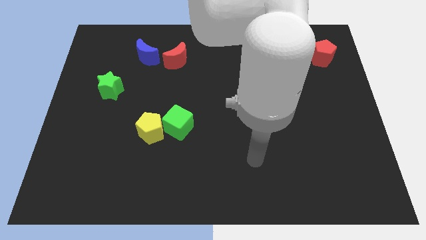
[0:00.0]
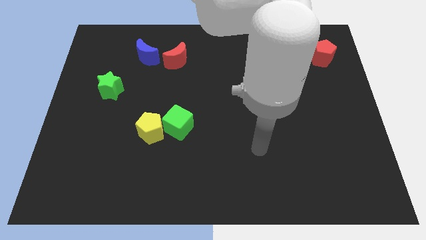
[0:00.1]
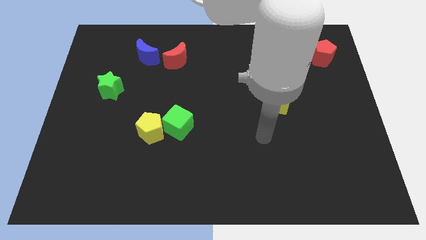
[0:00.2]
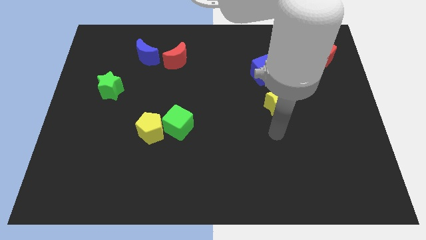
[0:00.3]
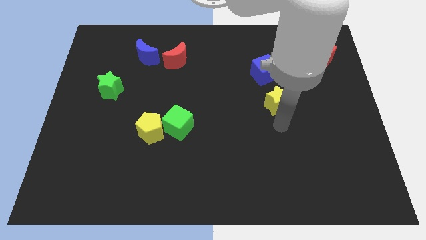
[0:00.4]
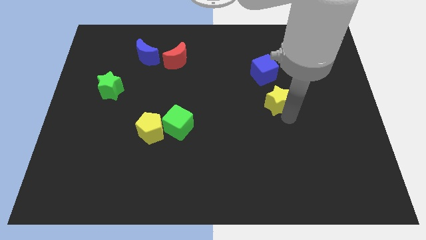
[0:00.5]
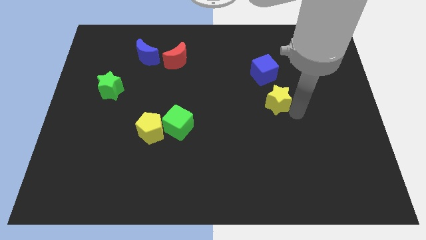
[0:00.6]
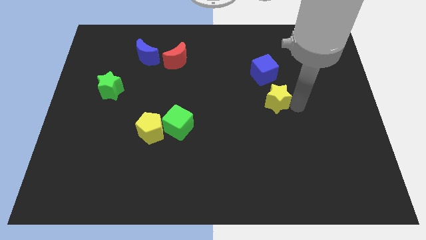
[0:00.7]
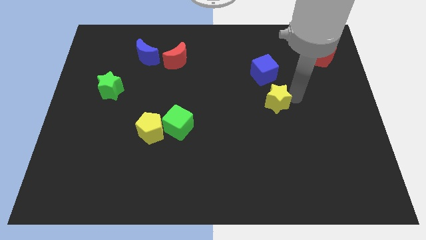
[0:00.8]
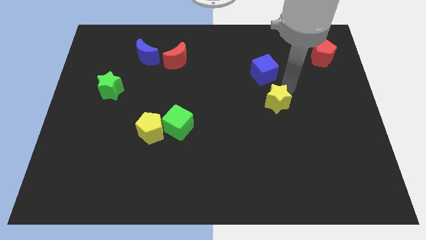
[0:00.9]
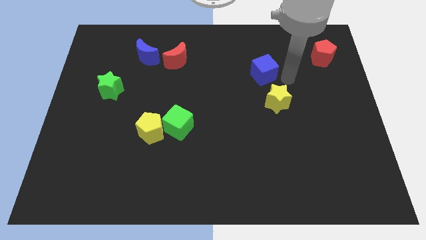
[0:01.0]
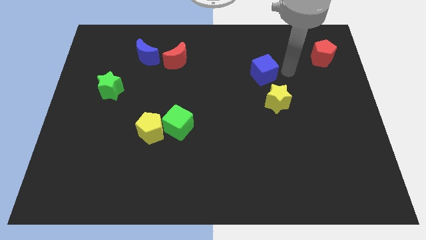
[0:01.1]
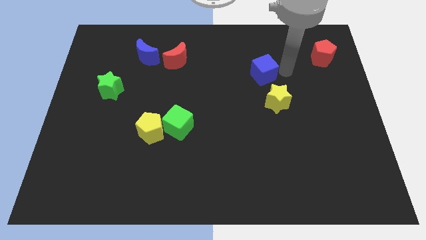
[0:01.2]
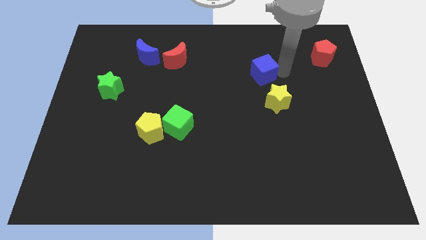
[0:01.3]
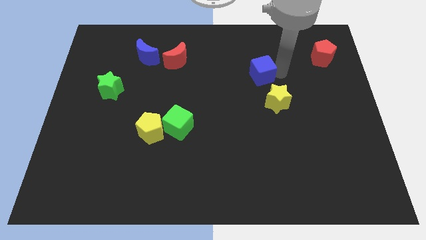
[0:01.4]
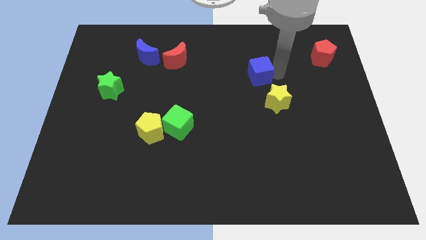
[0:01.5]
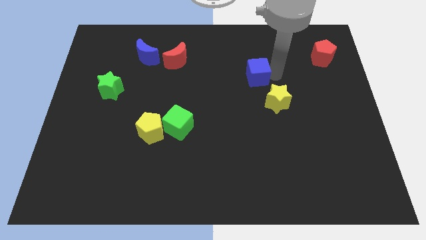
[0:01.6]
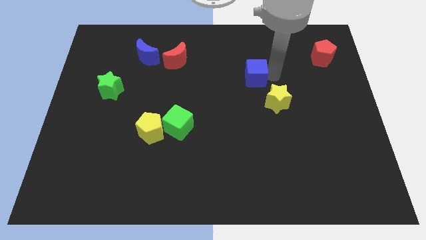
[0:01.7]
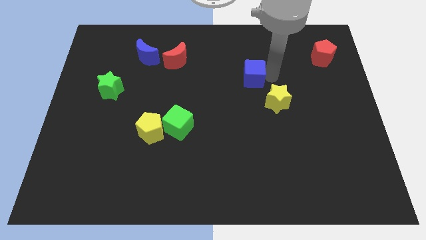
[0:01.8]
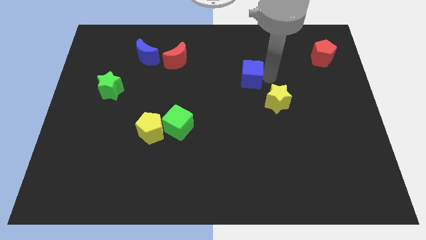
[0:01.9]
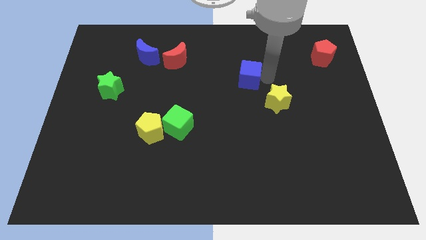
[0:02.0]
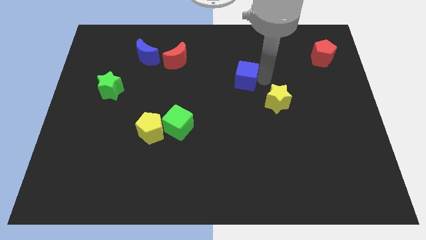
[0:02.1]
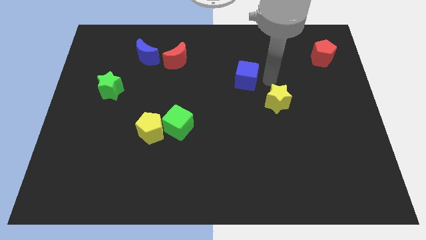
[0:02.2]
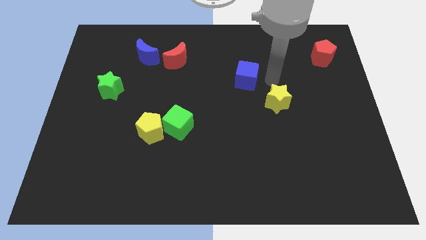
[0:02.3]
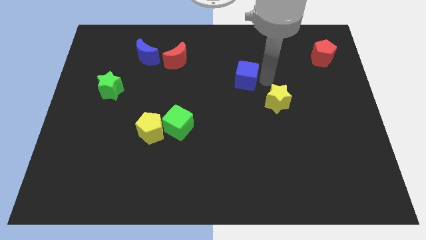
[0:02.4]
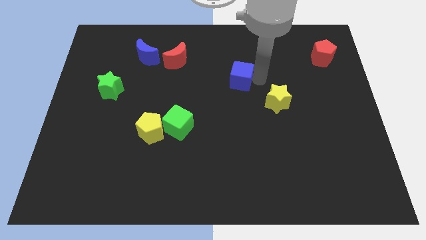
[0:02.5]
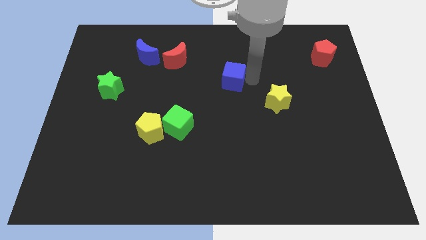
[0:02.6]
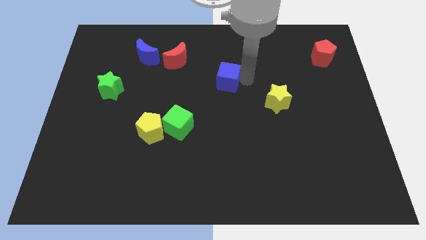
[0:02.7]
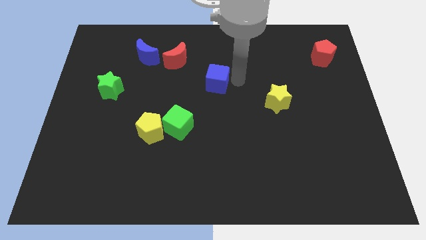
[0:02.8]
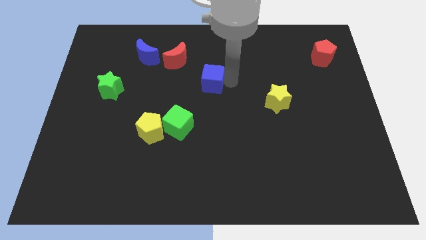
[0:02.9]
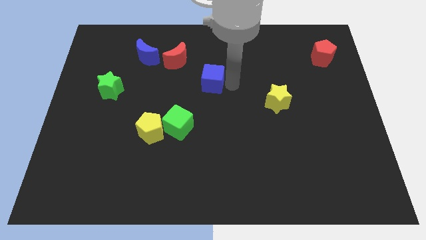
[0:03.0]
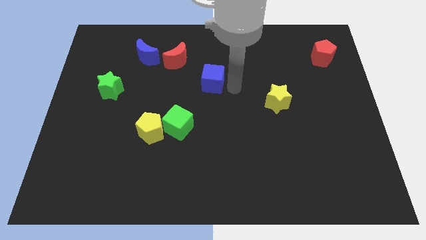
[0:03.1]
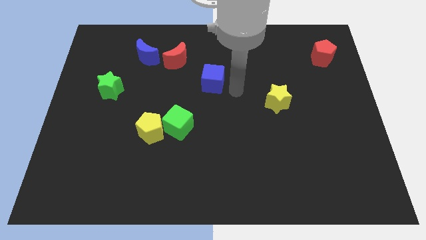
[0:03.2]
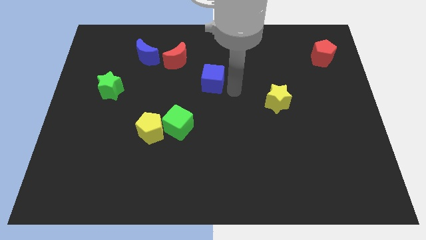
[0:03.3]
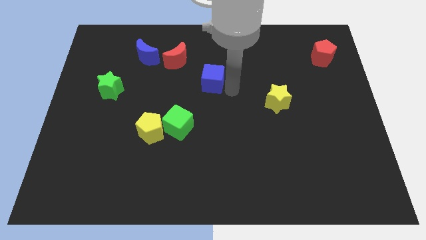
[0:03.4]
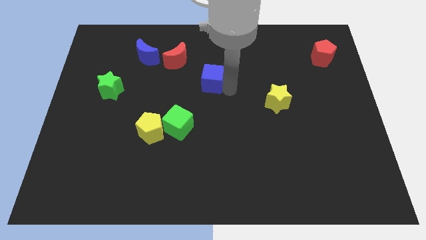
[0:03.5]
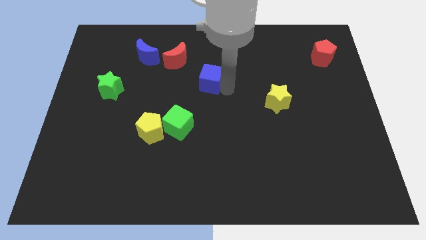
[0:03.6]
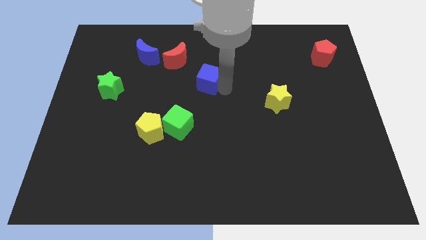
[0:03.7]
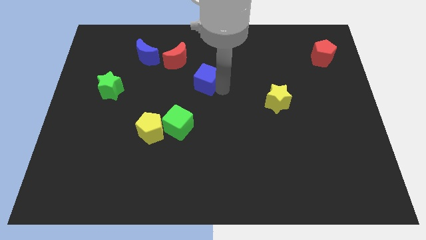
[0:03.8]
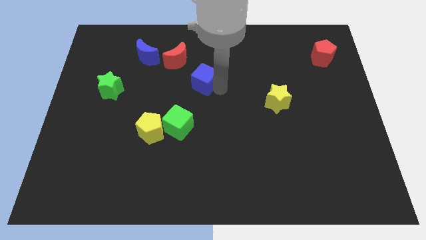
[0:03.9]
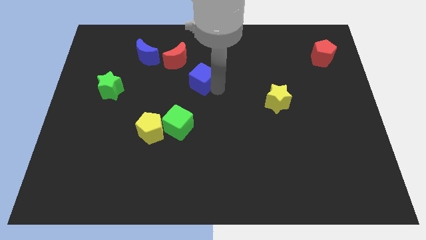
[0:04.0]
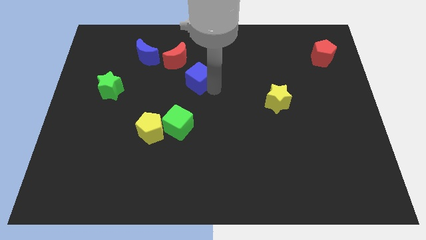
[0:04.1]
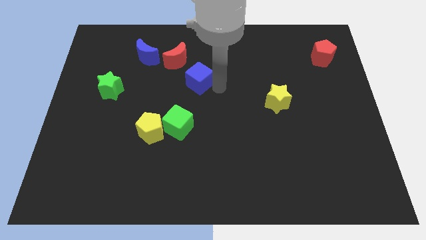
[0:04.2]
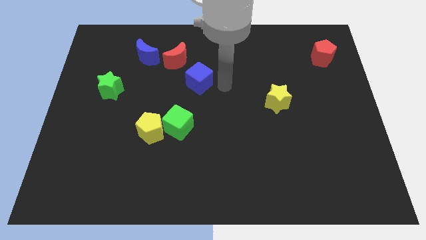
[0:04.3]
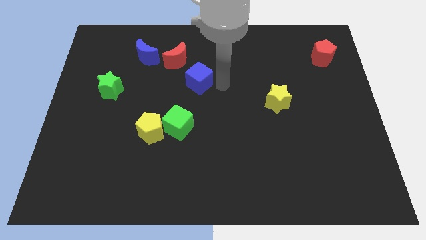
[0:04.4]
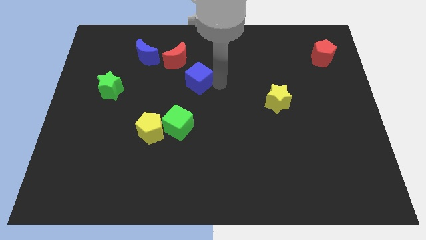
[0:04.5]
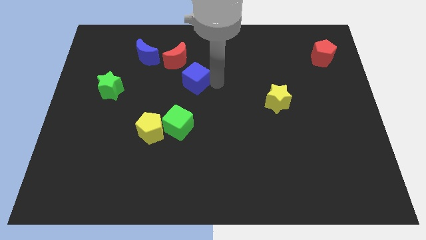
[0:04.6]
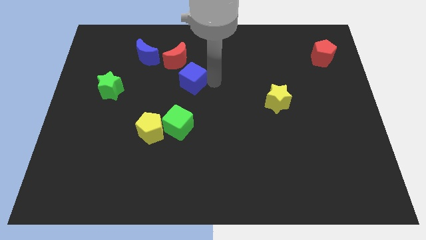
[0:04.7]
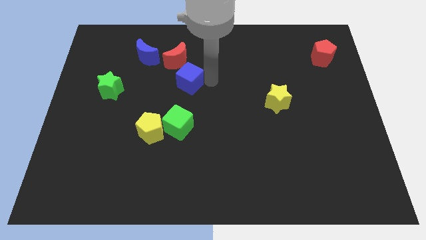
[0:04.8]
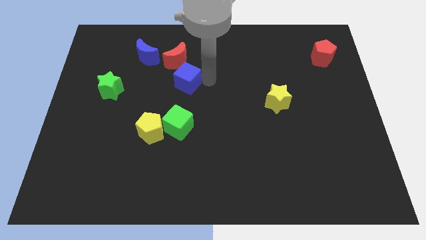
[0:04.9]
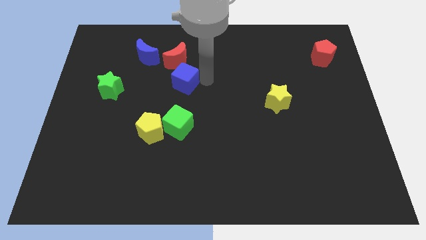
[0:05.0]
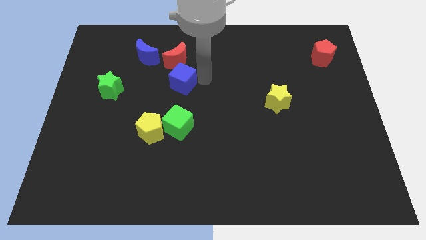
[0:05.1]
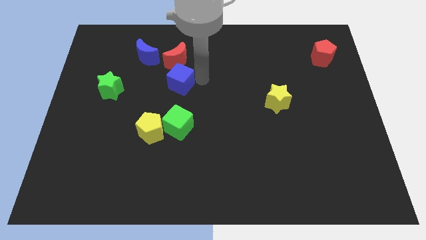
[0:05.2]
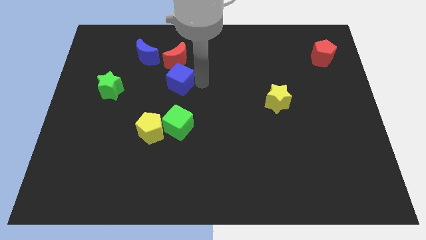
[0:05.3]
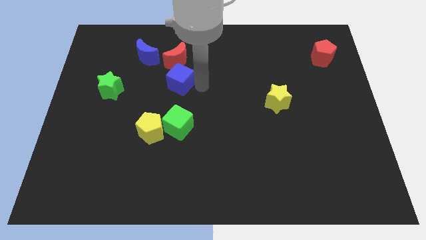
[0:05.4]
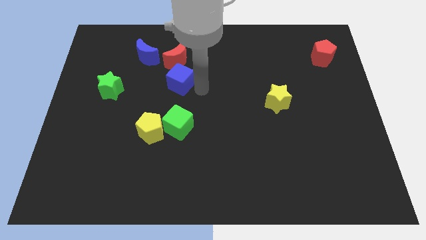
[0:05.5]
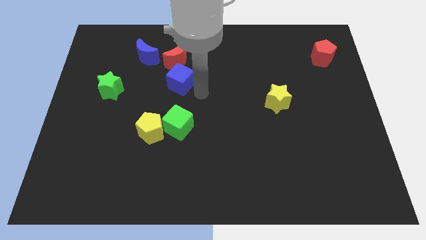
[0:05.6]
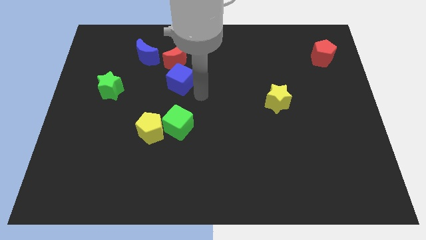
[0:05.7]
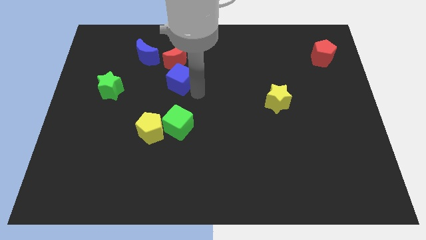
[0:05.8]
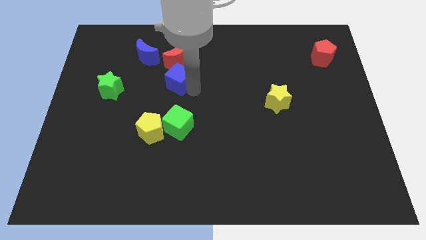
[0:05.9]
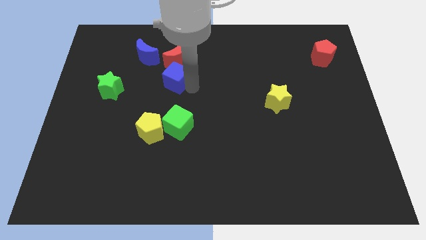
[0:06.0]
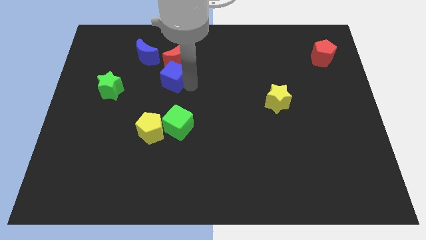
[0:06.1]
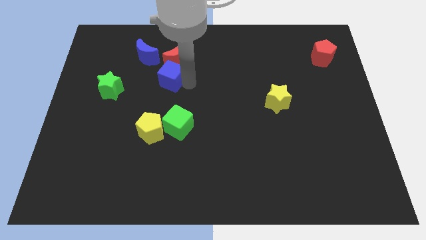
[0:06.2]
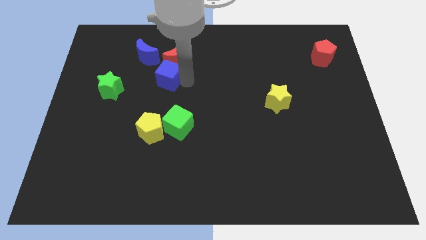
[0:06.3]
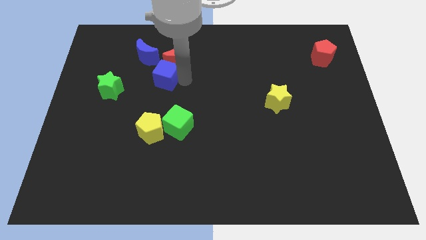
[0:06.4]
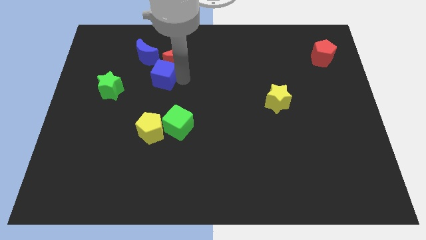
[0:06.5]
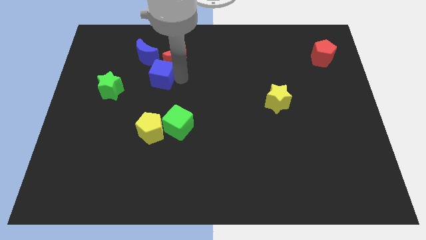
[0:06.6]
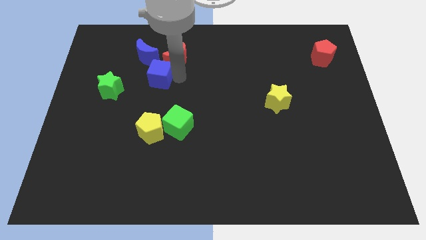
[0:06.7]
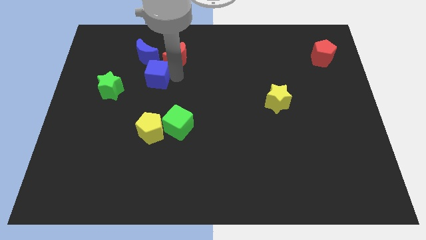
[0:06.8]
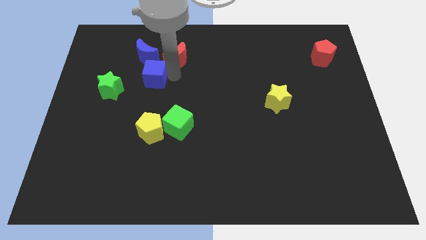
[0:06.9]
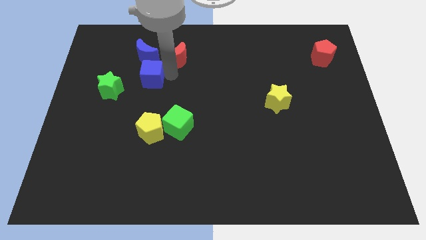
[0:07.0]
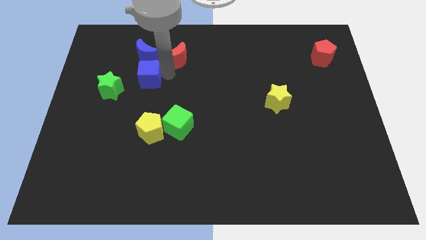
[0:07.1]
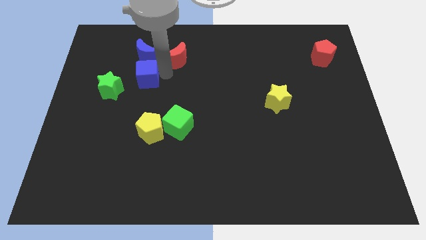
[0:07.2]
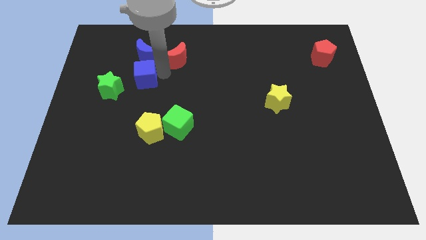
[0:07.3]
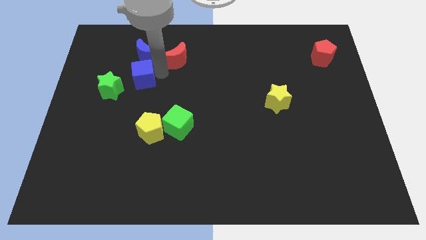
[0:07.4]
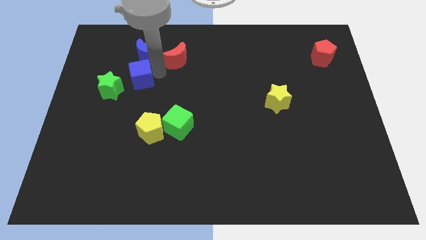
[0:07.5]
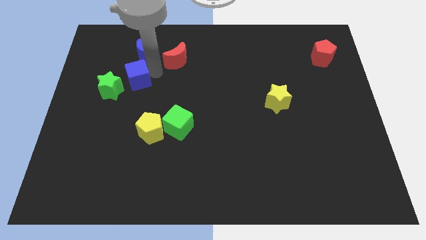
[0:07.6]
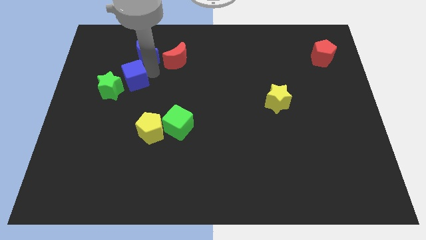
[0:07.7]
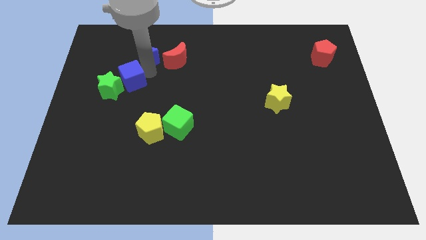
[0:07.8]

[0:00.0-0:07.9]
slide the blue cube towards the green star
